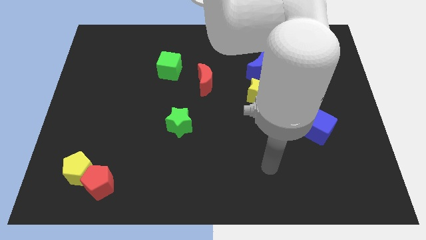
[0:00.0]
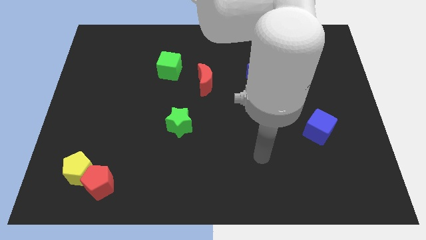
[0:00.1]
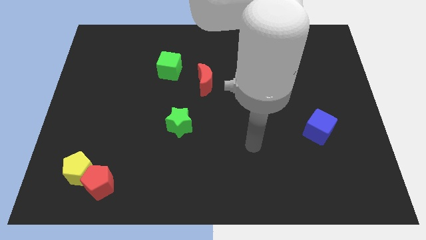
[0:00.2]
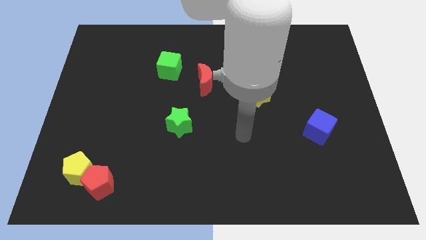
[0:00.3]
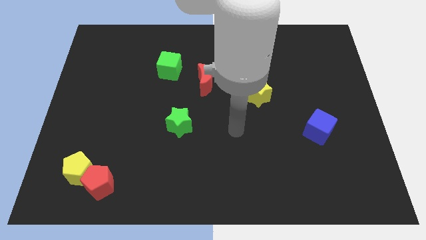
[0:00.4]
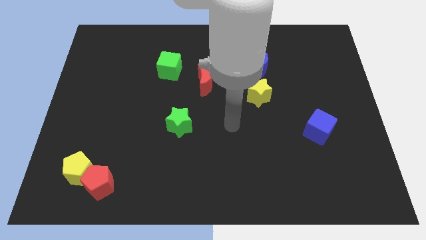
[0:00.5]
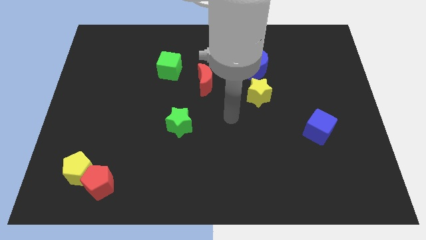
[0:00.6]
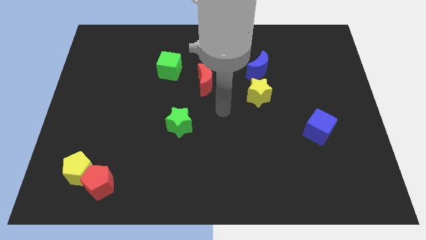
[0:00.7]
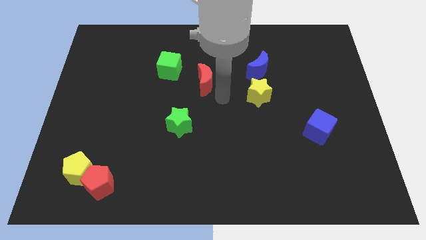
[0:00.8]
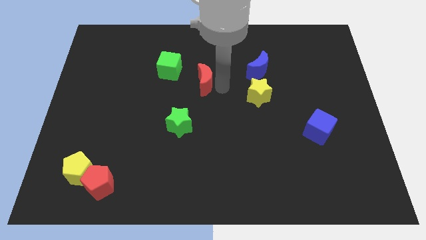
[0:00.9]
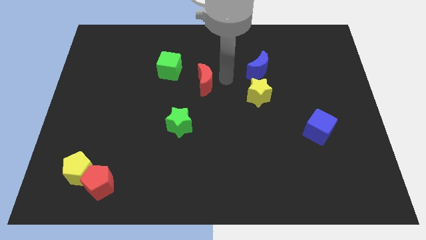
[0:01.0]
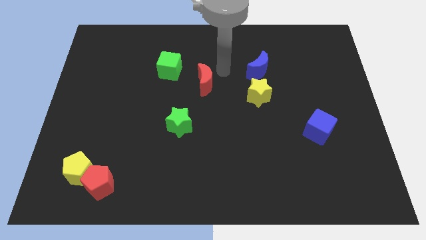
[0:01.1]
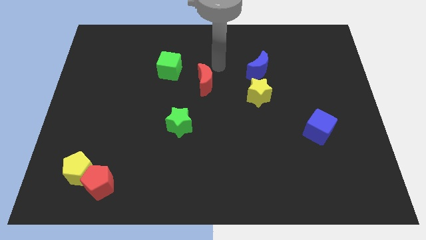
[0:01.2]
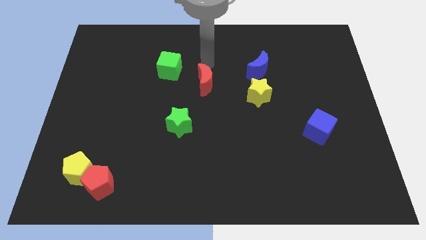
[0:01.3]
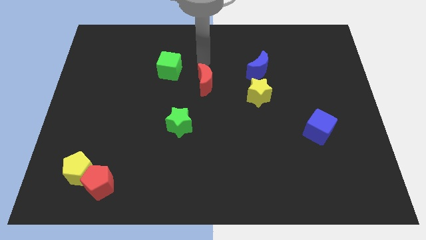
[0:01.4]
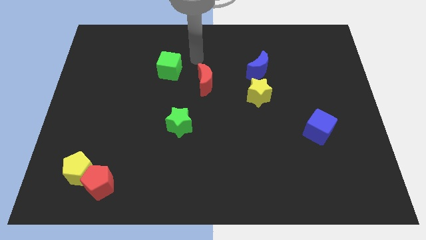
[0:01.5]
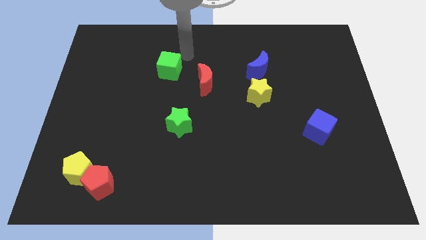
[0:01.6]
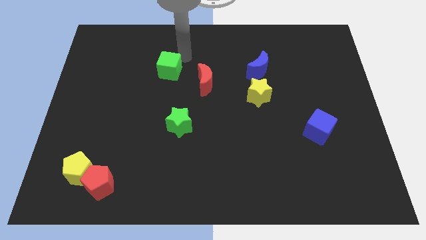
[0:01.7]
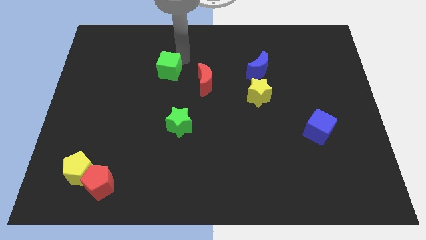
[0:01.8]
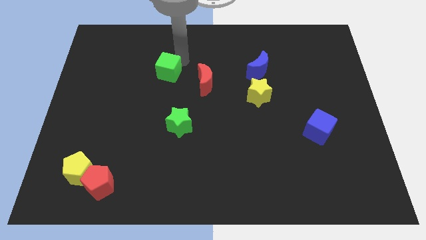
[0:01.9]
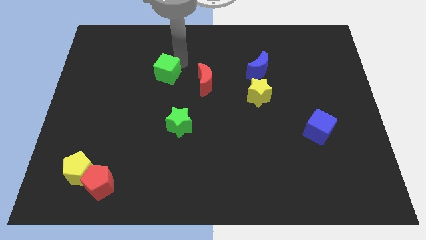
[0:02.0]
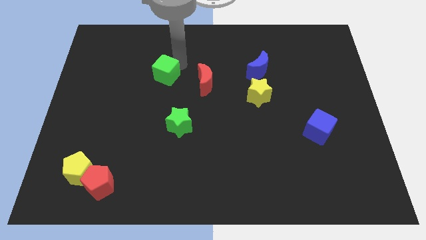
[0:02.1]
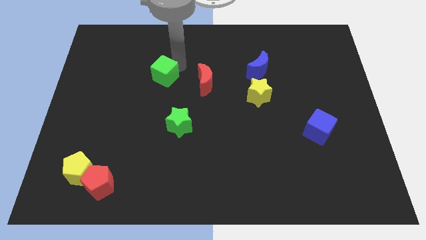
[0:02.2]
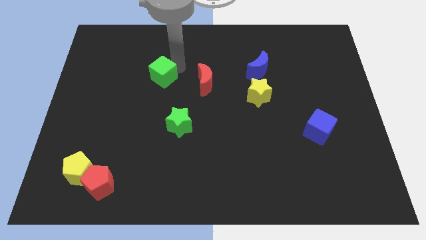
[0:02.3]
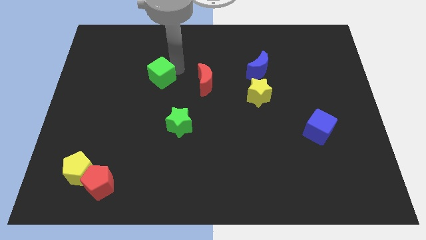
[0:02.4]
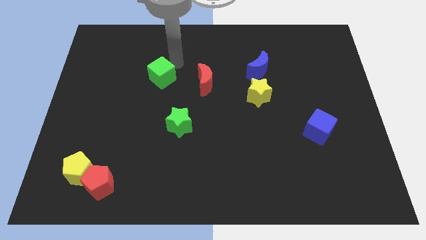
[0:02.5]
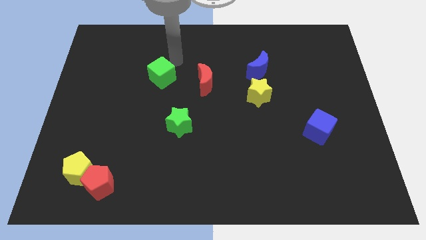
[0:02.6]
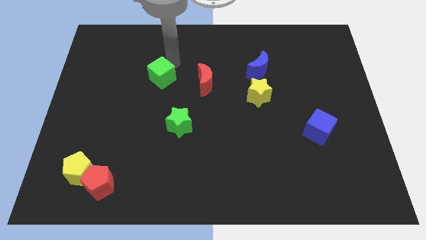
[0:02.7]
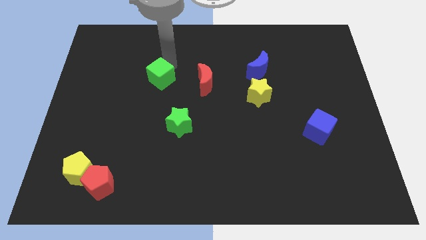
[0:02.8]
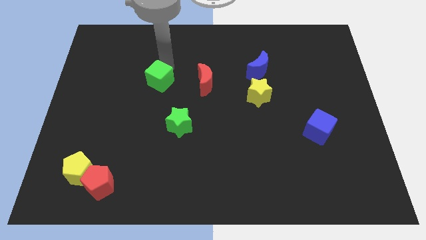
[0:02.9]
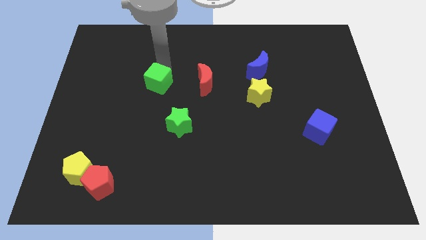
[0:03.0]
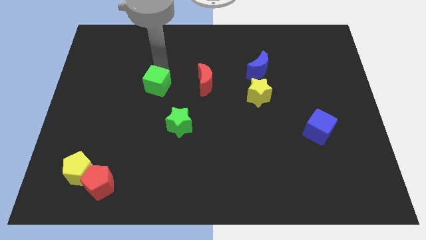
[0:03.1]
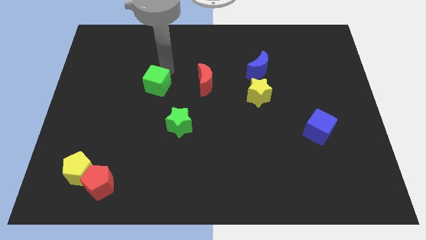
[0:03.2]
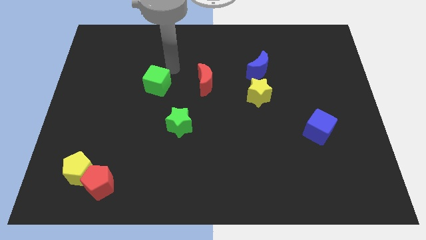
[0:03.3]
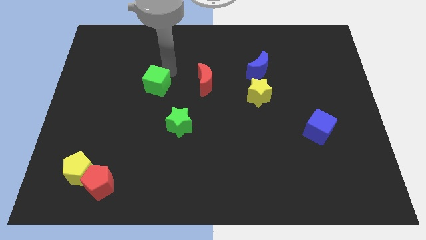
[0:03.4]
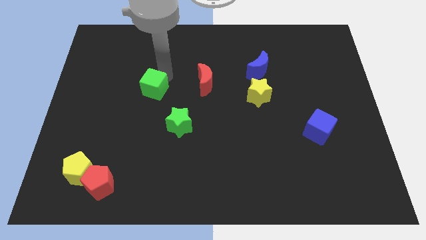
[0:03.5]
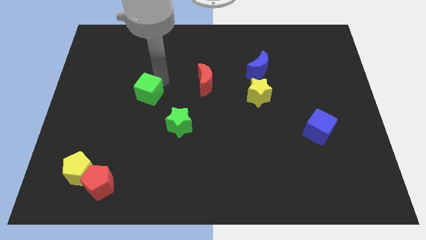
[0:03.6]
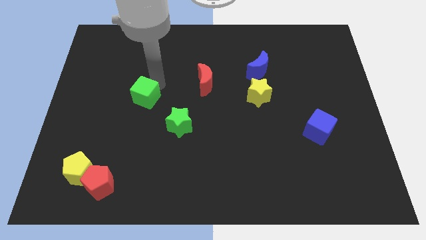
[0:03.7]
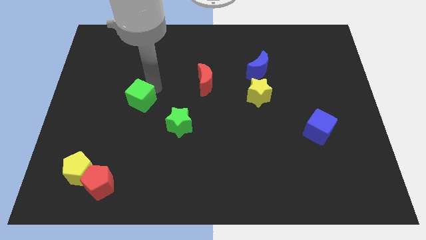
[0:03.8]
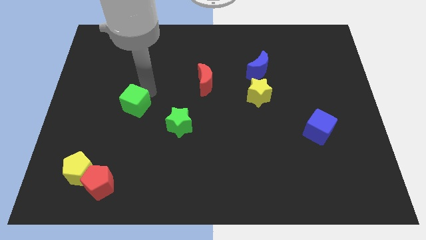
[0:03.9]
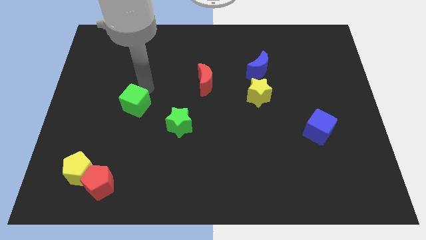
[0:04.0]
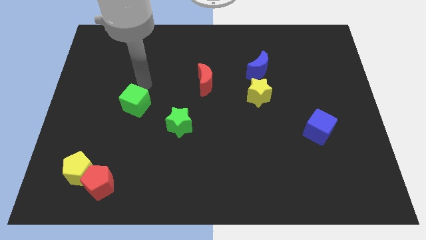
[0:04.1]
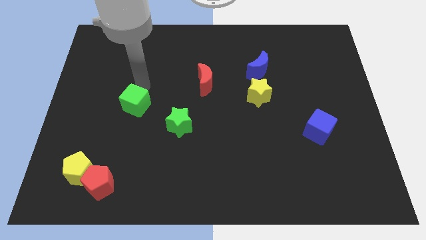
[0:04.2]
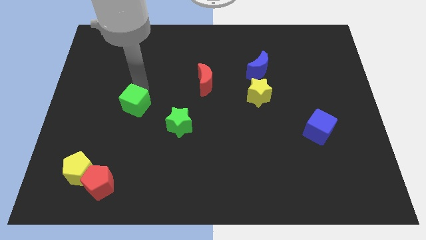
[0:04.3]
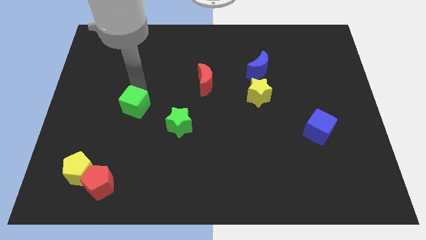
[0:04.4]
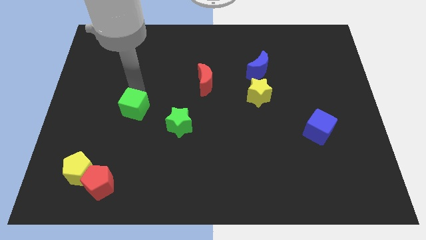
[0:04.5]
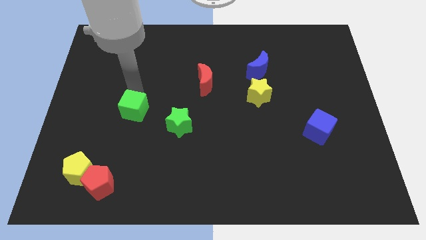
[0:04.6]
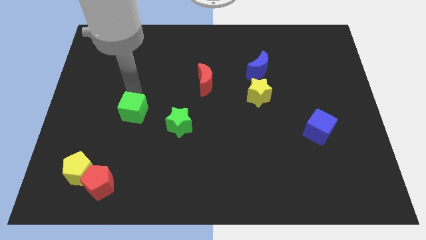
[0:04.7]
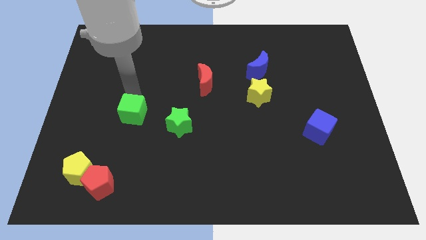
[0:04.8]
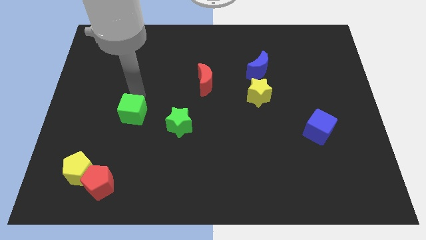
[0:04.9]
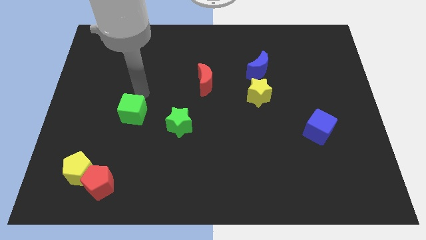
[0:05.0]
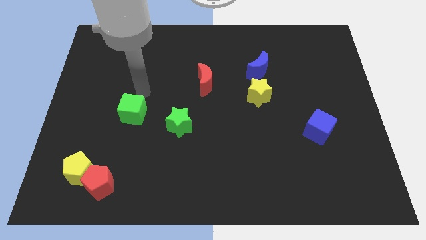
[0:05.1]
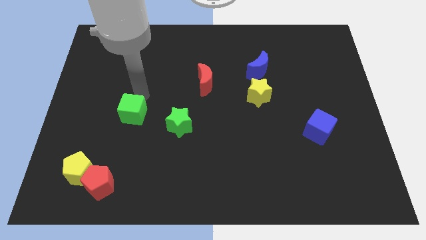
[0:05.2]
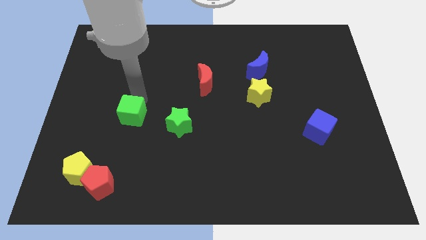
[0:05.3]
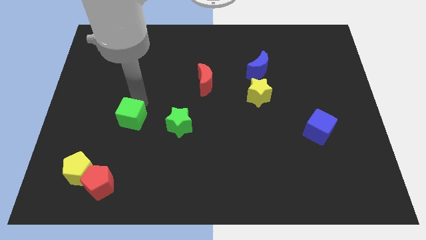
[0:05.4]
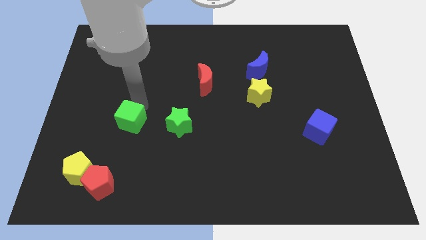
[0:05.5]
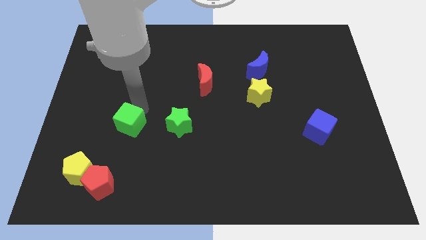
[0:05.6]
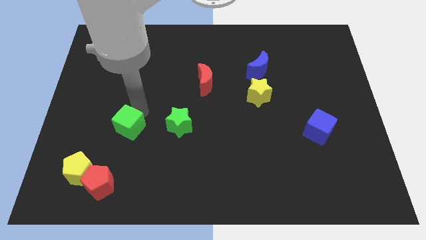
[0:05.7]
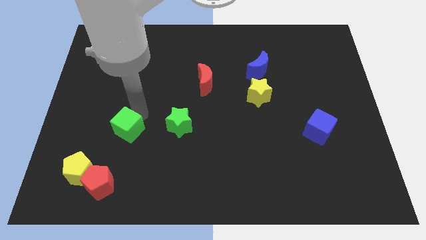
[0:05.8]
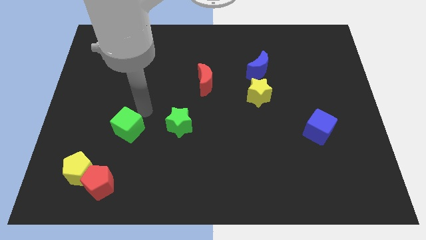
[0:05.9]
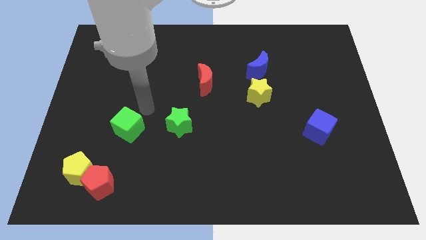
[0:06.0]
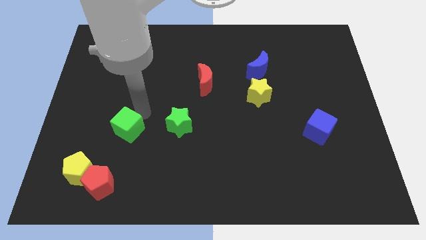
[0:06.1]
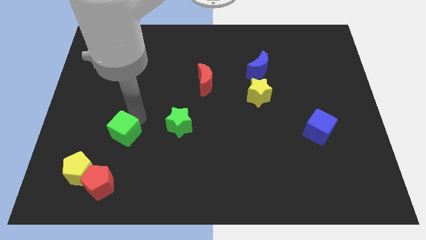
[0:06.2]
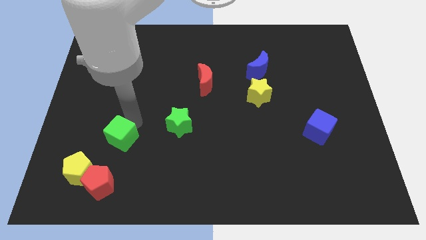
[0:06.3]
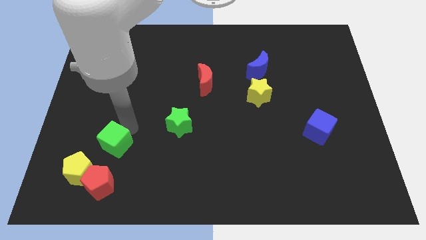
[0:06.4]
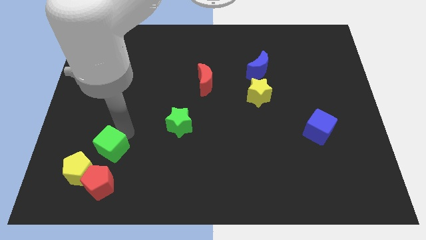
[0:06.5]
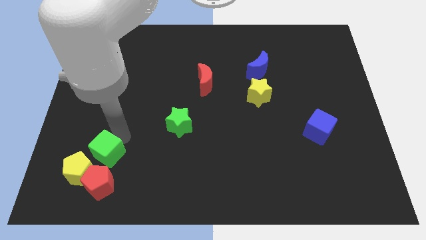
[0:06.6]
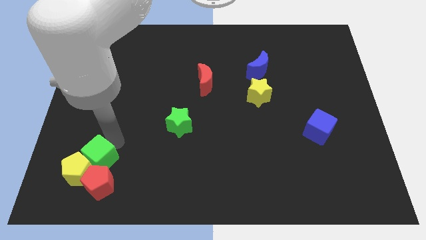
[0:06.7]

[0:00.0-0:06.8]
slide the green cube to the red pentagon

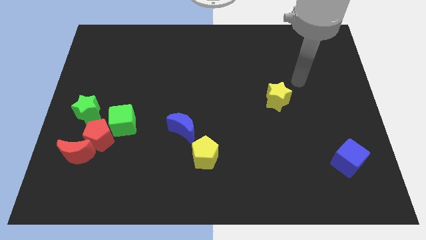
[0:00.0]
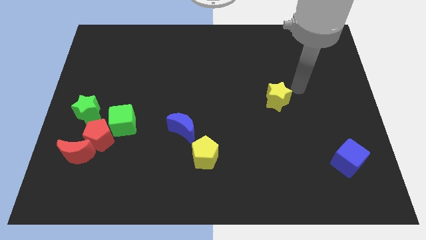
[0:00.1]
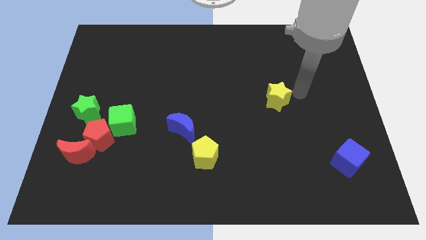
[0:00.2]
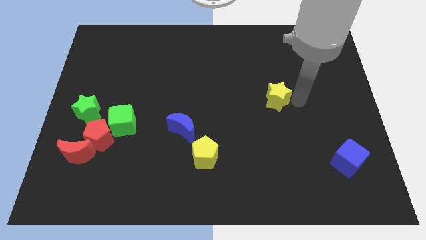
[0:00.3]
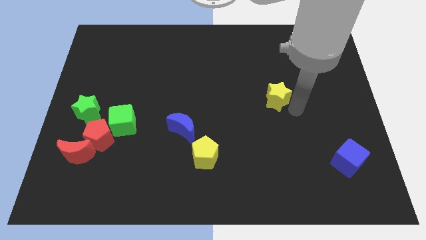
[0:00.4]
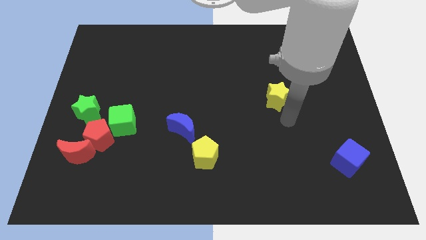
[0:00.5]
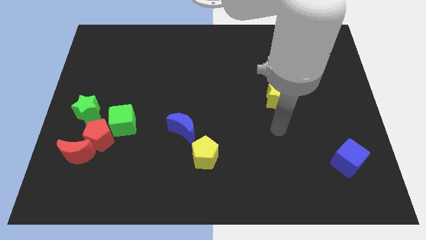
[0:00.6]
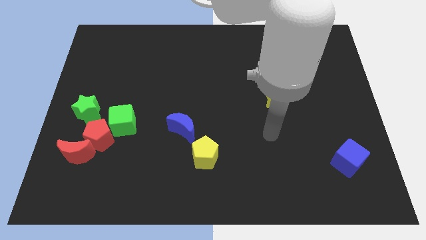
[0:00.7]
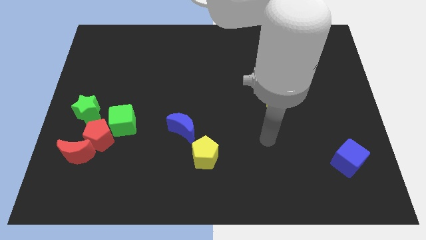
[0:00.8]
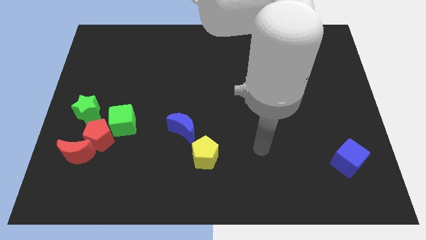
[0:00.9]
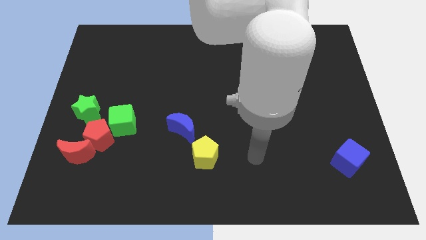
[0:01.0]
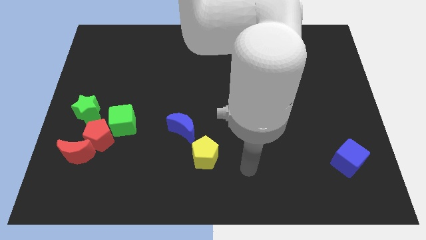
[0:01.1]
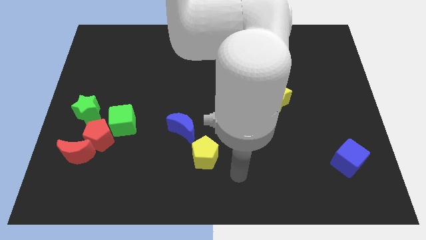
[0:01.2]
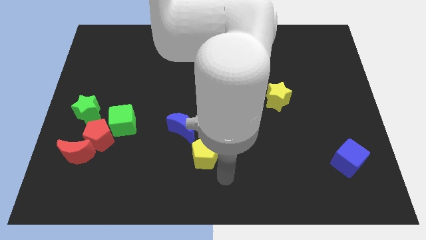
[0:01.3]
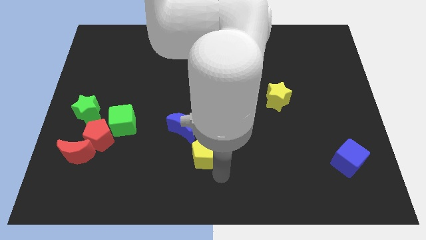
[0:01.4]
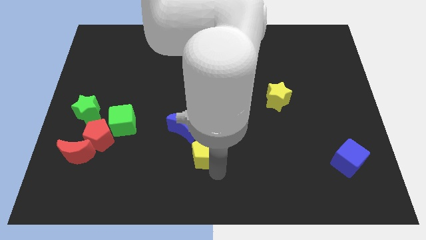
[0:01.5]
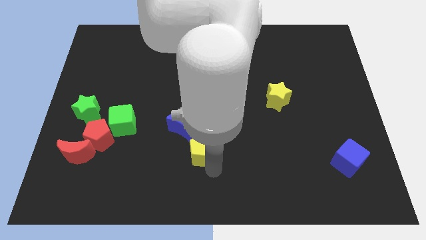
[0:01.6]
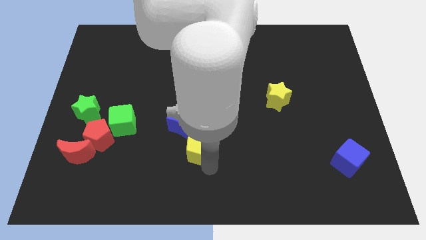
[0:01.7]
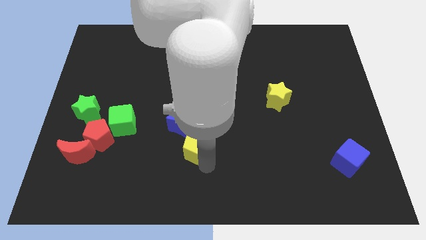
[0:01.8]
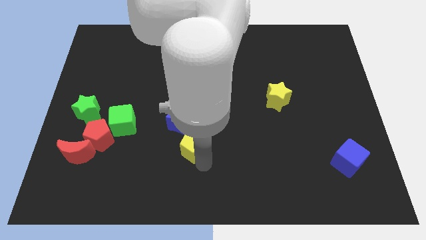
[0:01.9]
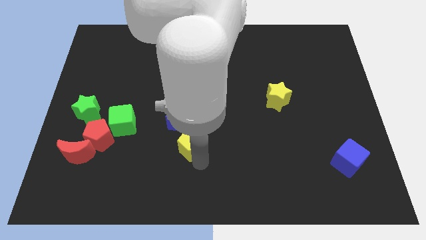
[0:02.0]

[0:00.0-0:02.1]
move the yellow pentagon to the blue moon
